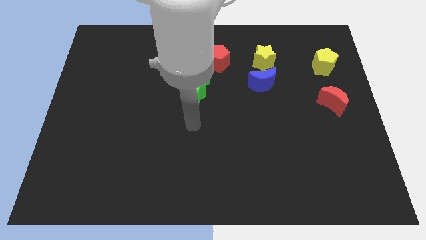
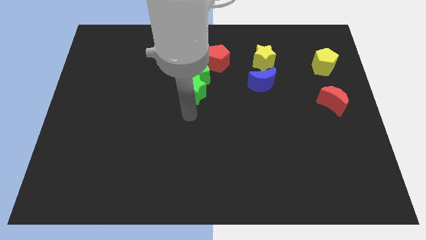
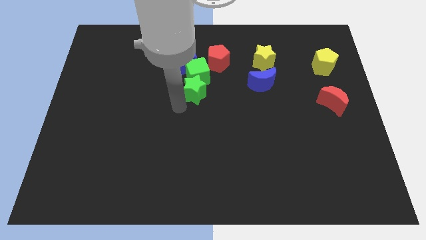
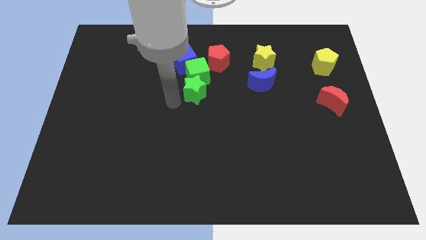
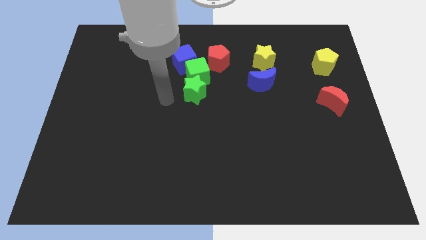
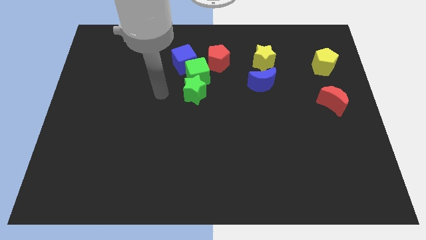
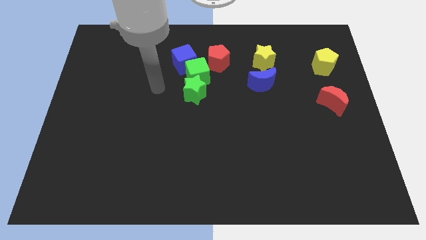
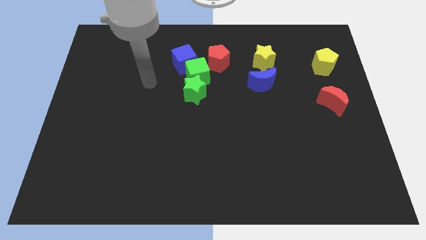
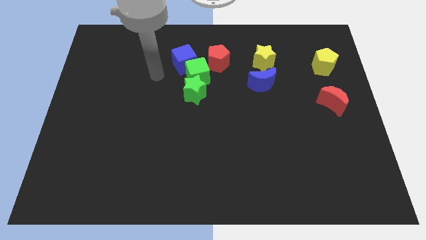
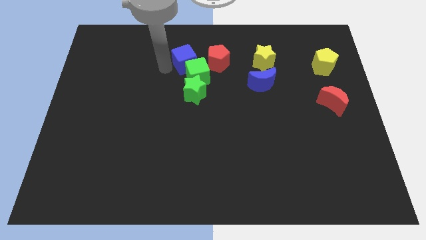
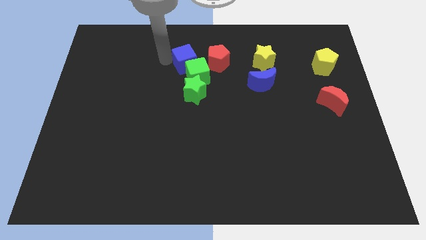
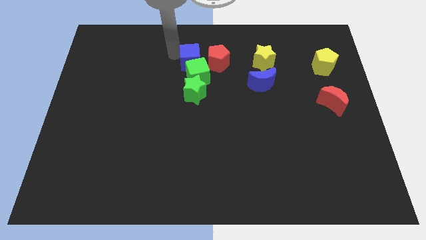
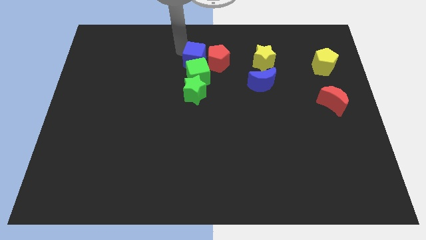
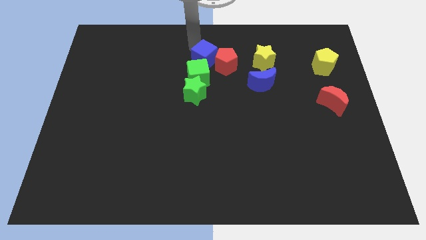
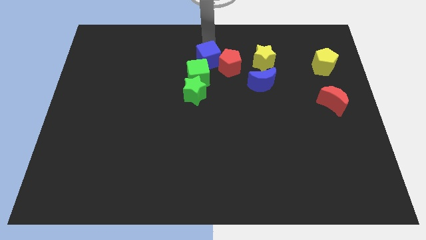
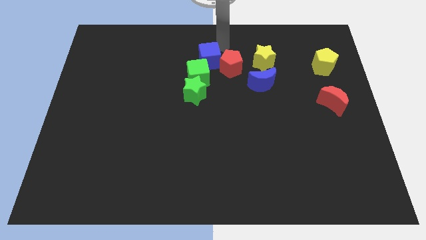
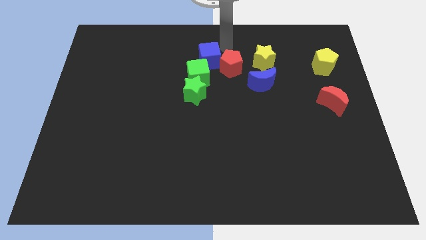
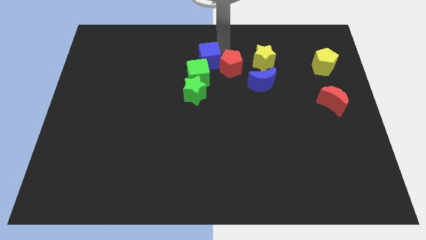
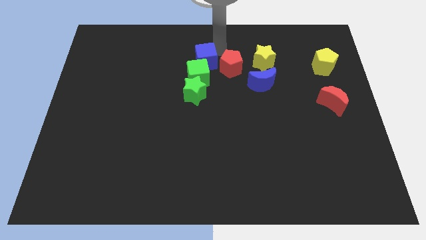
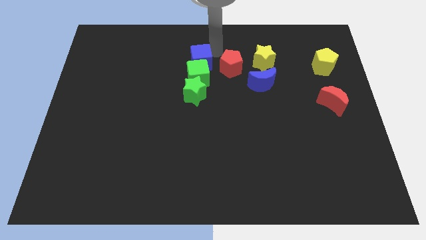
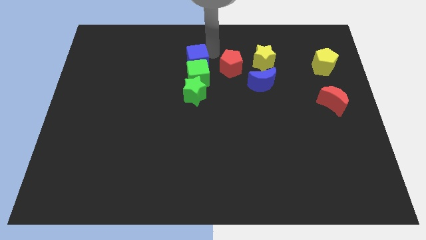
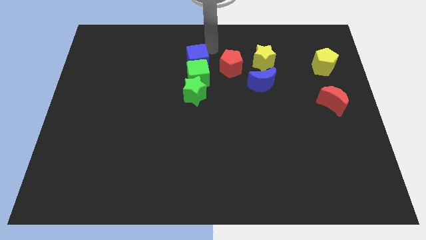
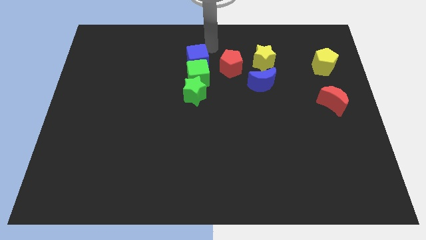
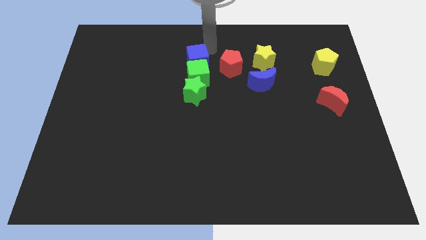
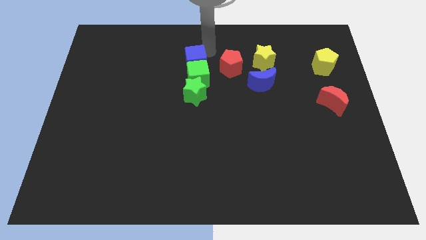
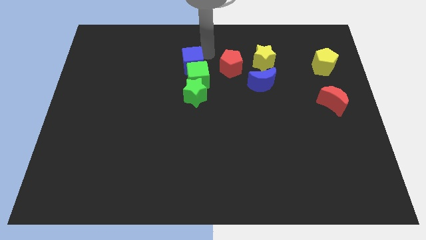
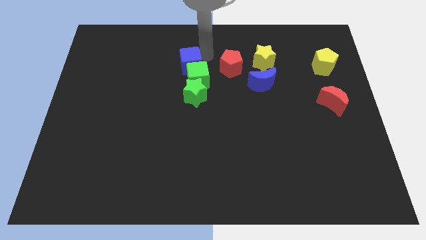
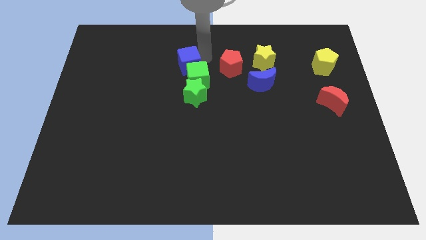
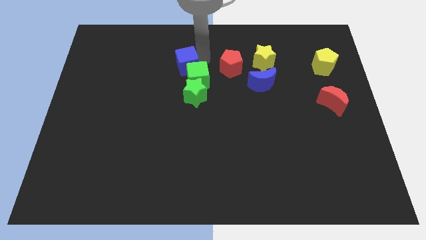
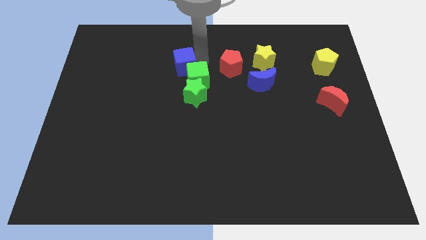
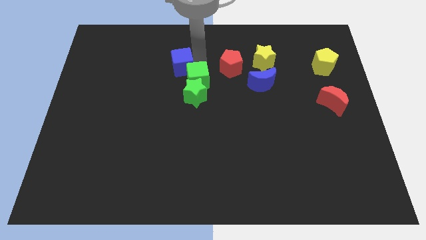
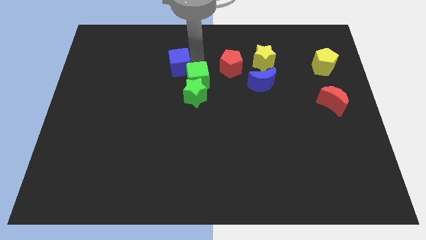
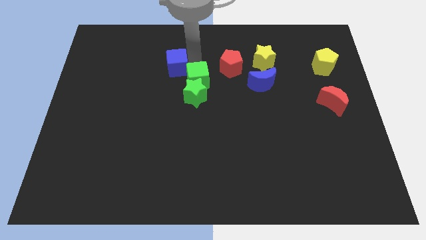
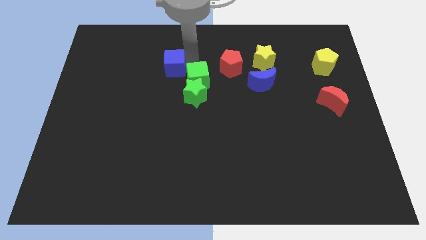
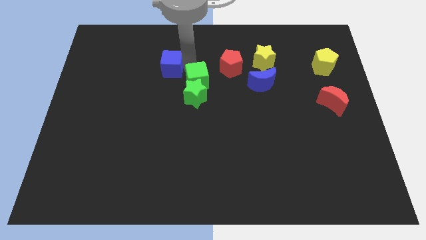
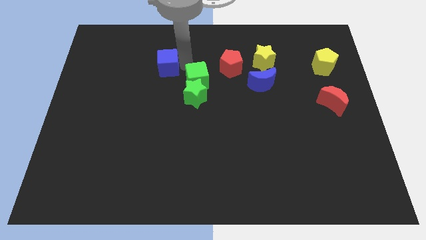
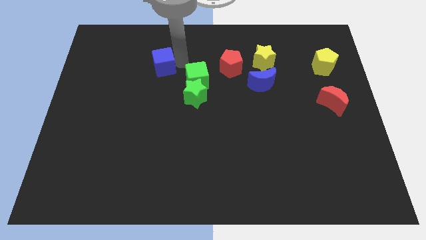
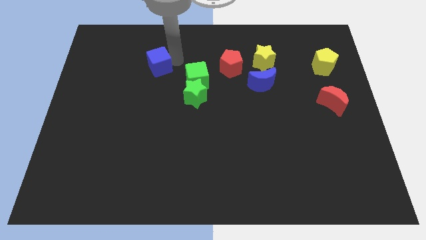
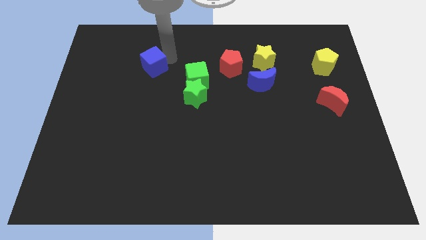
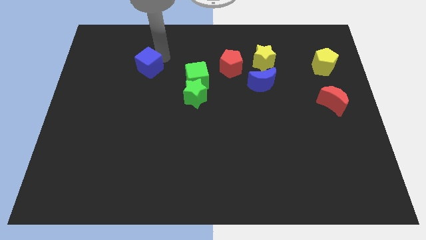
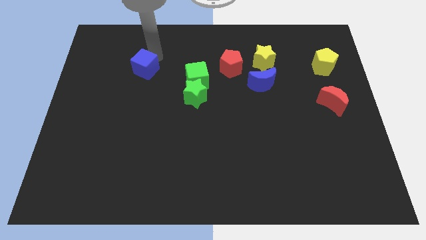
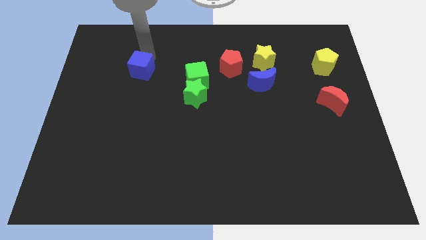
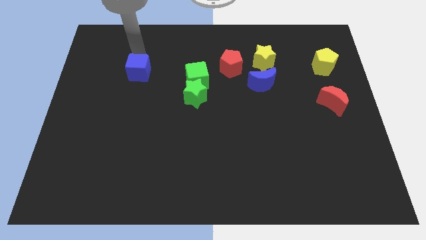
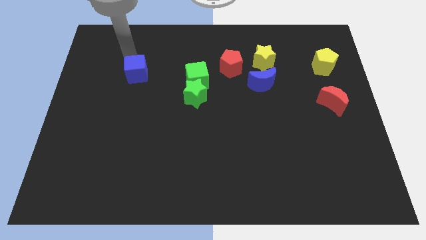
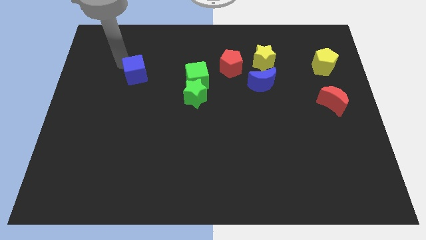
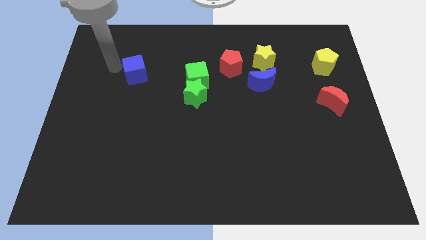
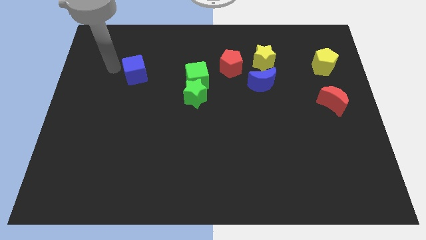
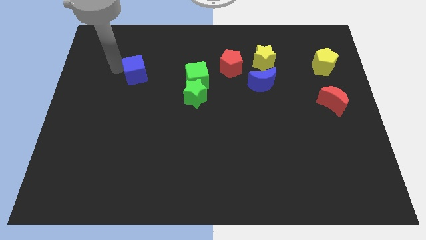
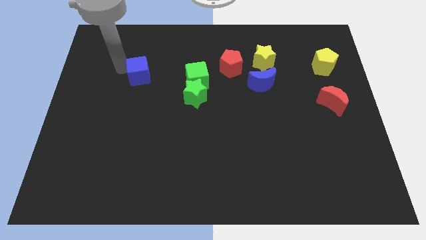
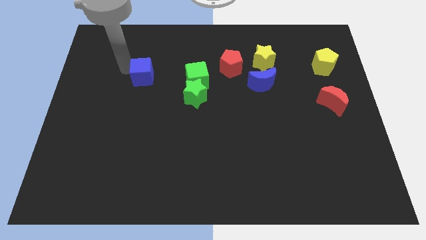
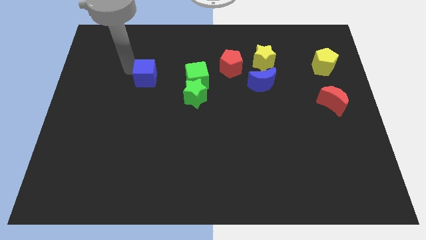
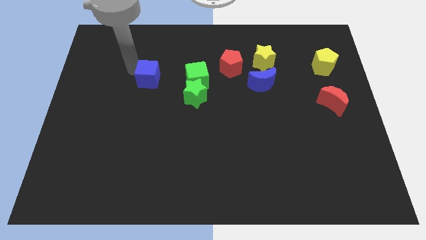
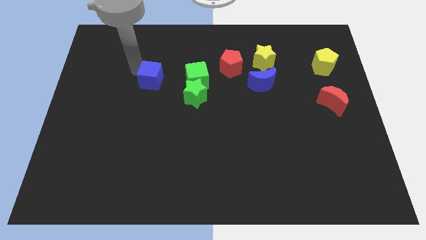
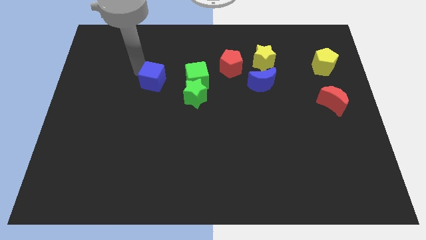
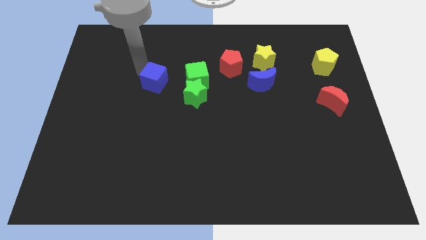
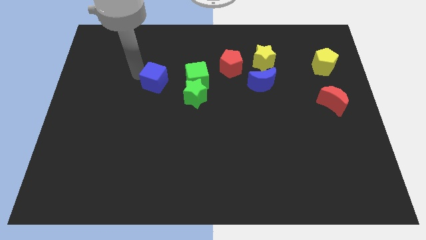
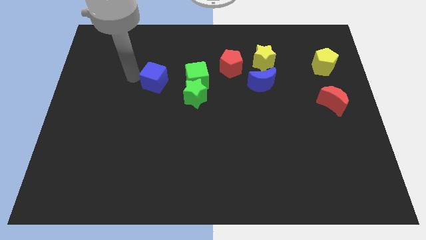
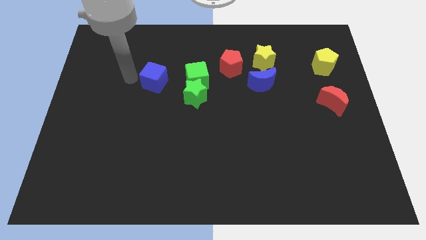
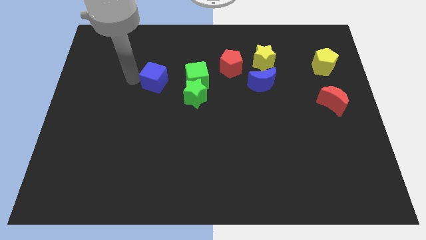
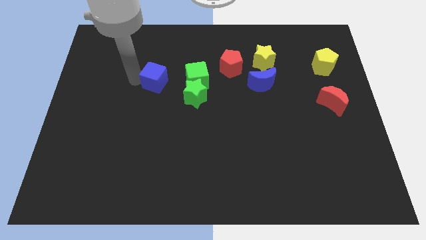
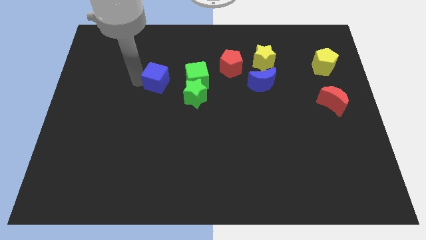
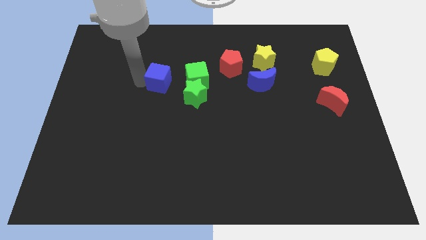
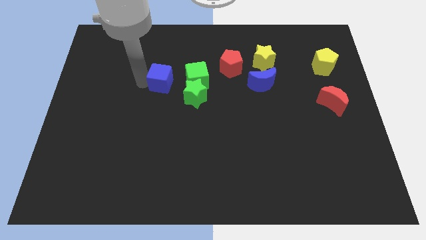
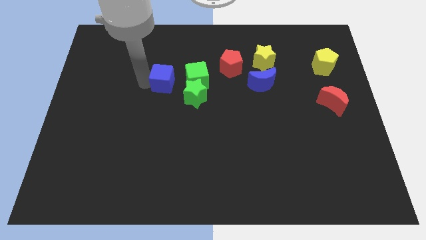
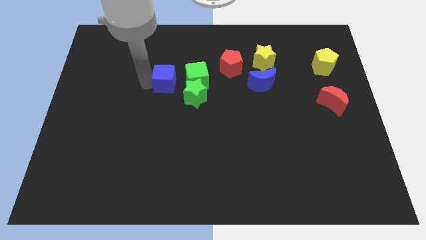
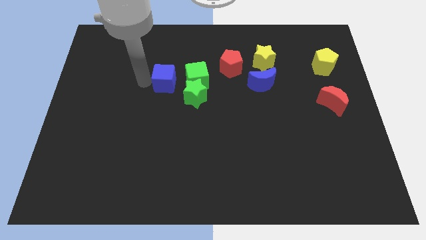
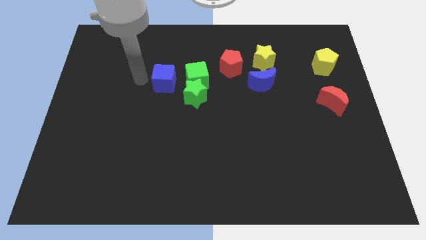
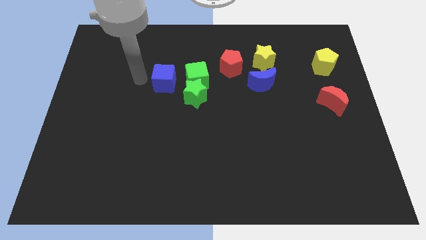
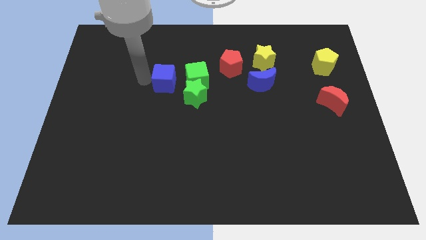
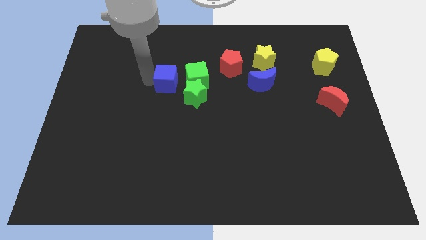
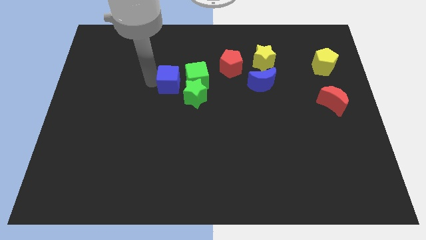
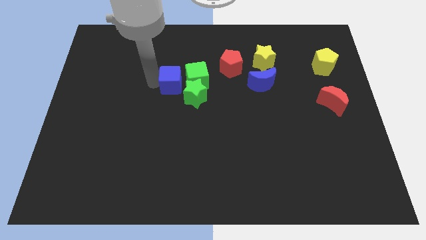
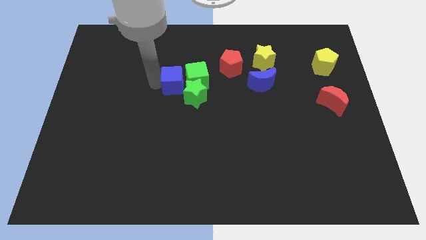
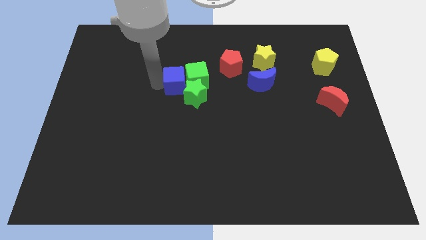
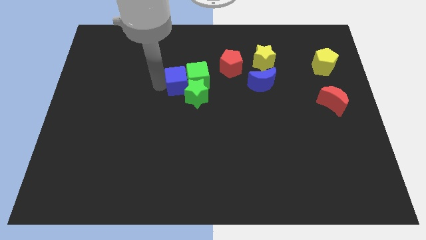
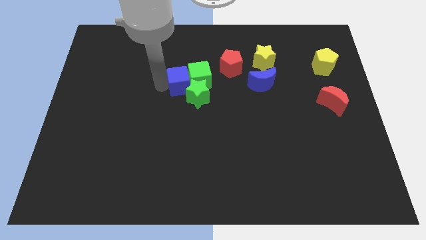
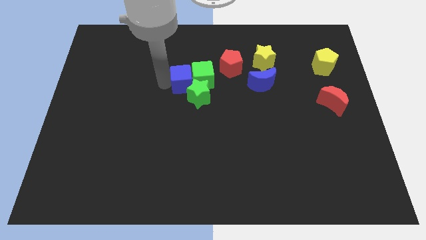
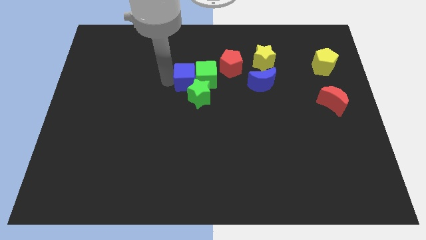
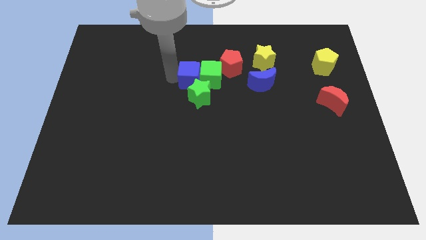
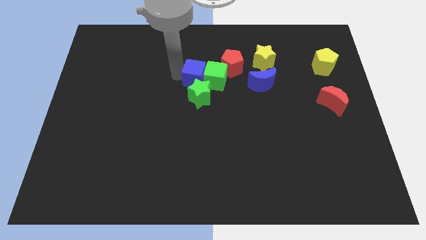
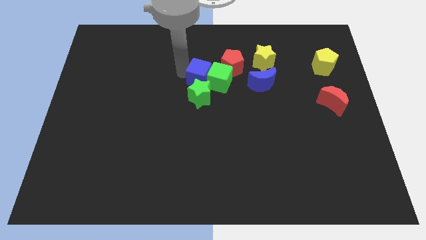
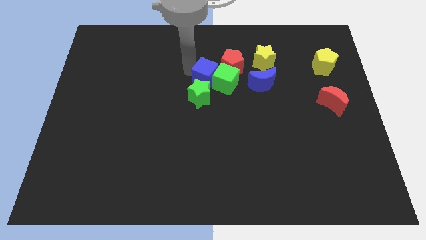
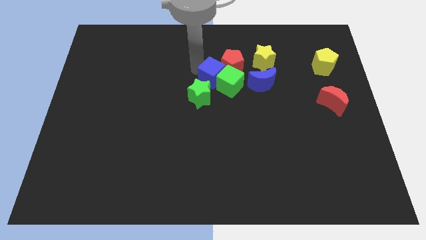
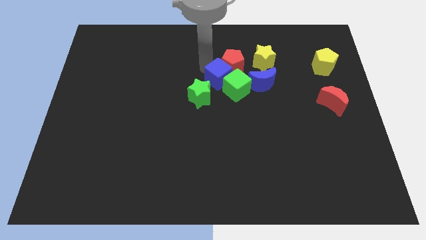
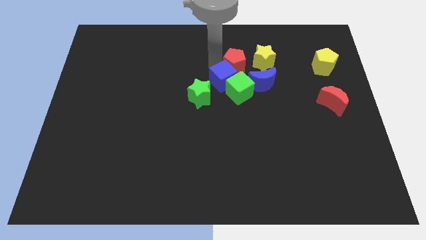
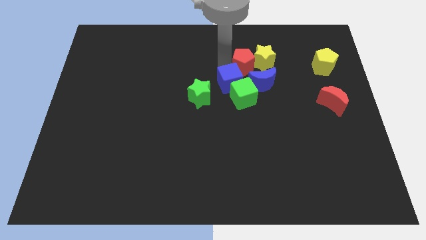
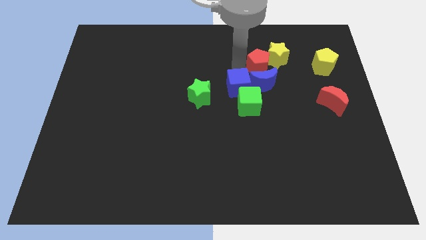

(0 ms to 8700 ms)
move the blue cube to the blue moon
